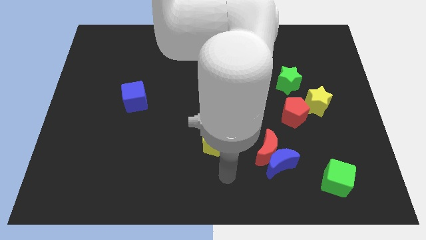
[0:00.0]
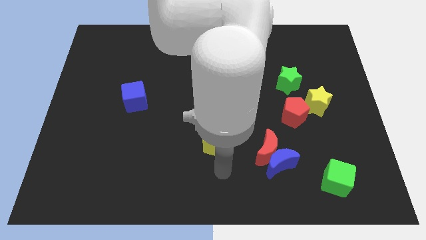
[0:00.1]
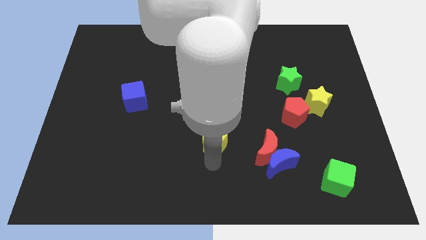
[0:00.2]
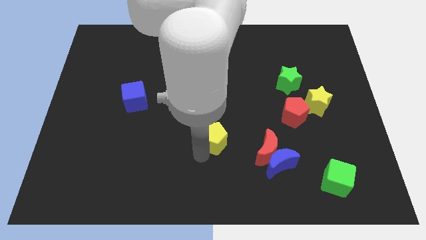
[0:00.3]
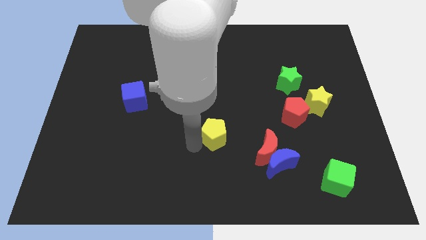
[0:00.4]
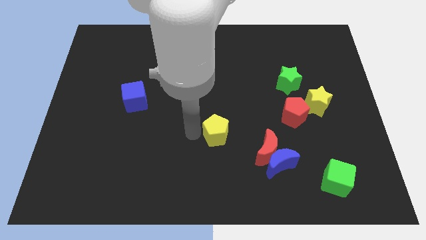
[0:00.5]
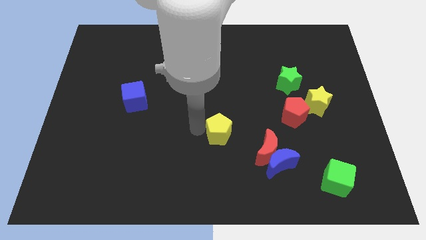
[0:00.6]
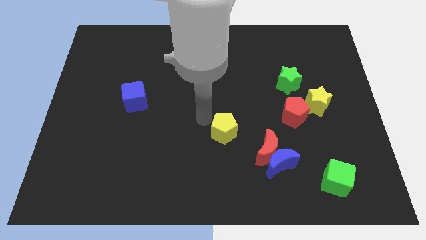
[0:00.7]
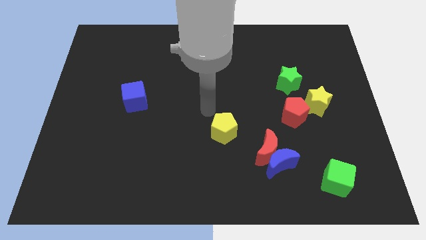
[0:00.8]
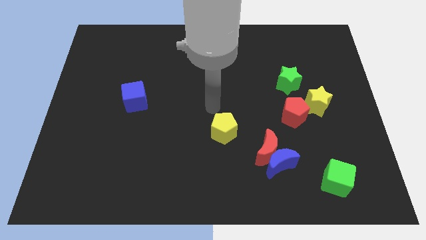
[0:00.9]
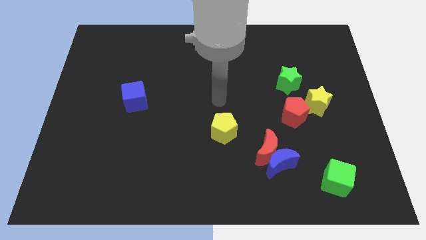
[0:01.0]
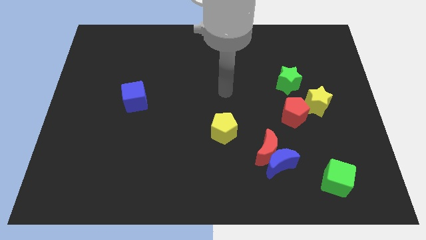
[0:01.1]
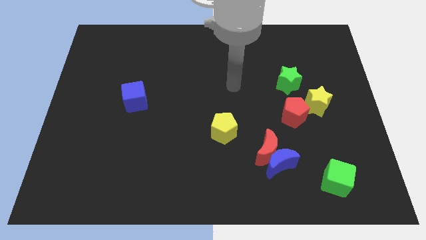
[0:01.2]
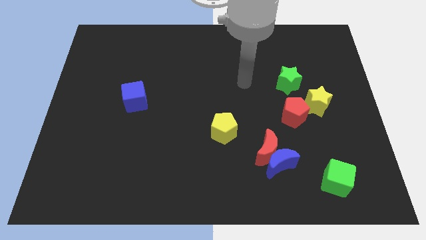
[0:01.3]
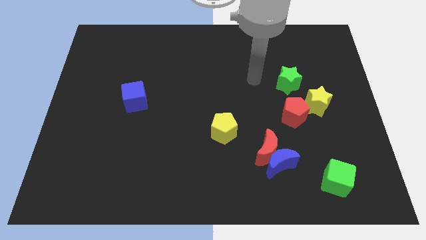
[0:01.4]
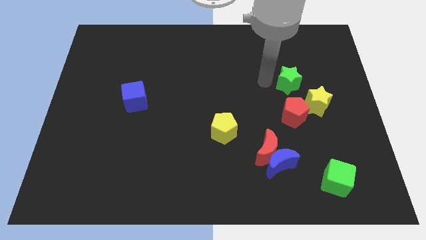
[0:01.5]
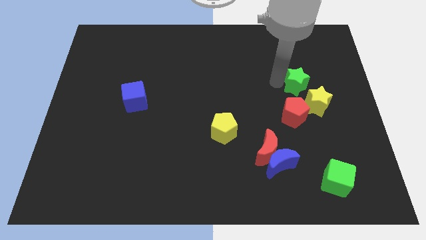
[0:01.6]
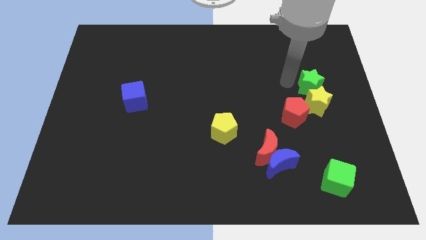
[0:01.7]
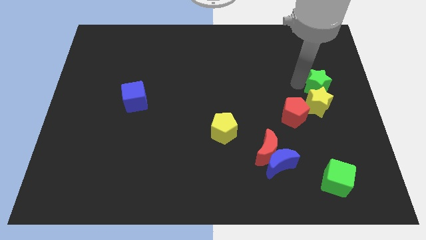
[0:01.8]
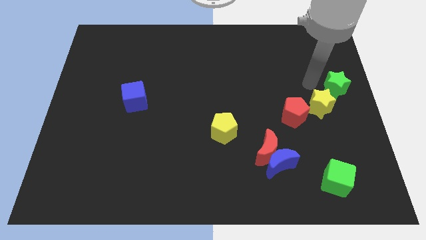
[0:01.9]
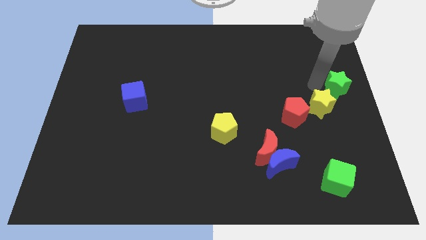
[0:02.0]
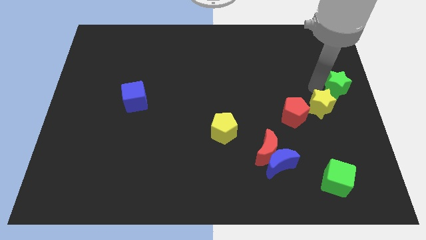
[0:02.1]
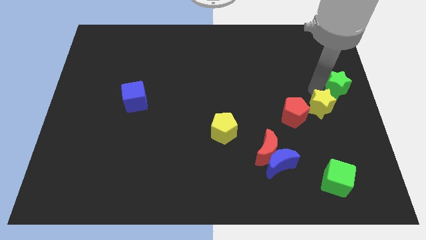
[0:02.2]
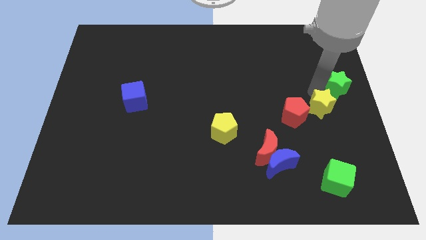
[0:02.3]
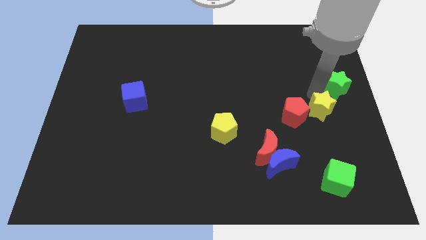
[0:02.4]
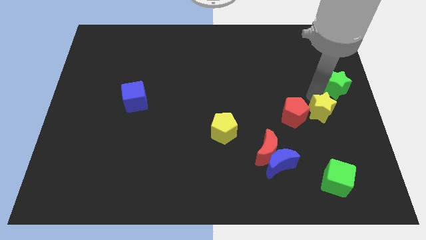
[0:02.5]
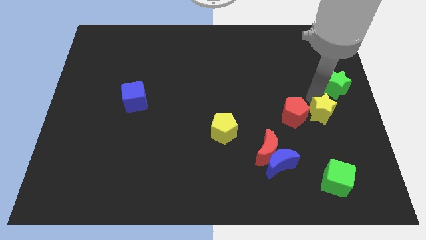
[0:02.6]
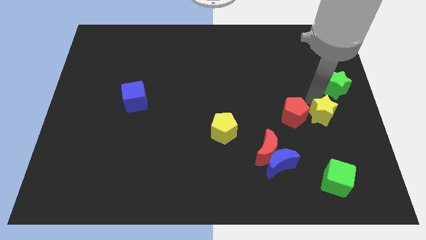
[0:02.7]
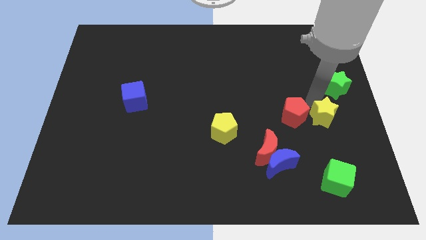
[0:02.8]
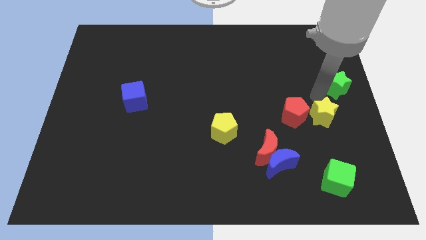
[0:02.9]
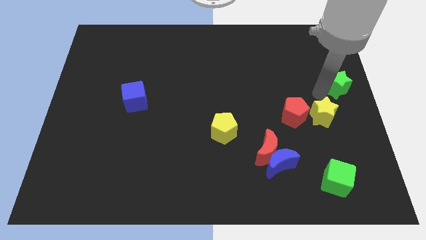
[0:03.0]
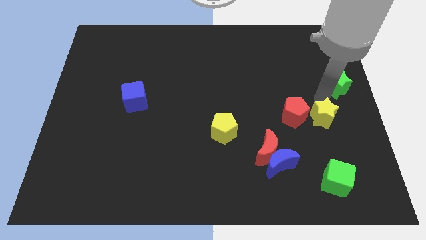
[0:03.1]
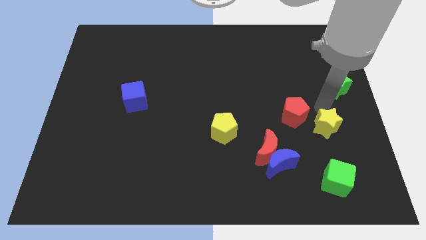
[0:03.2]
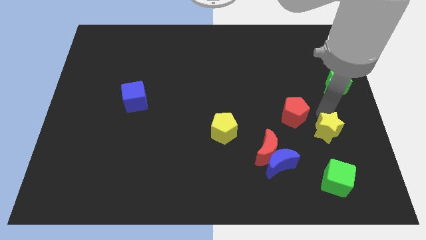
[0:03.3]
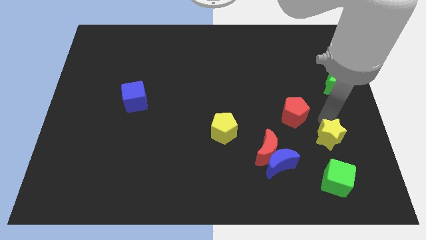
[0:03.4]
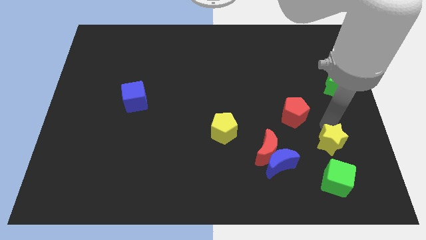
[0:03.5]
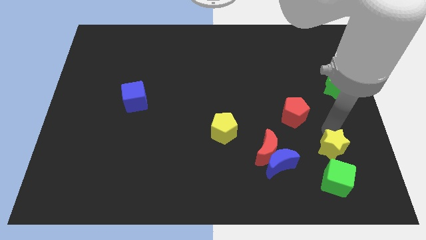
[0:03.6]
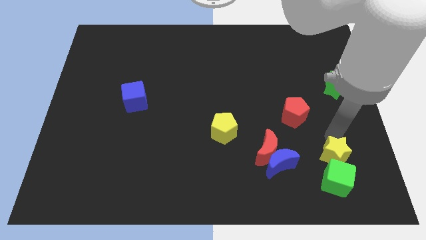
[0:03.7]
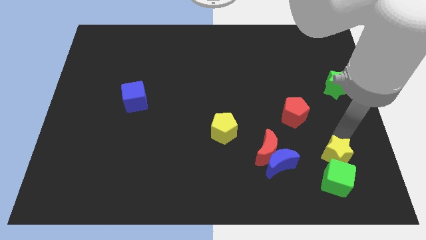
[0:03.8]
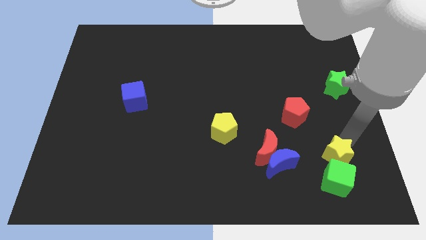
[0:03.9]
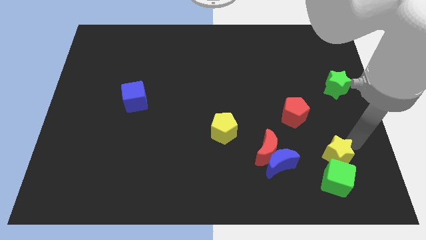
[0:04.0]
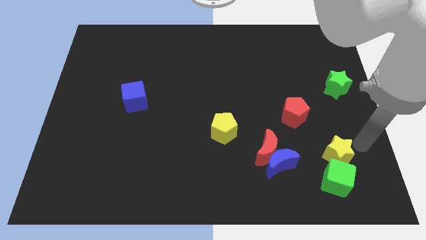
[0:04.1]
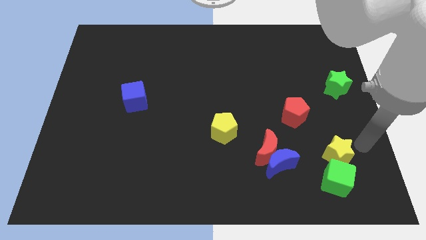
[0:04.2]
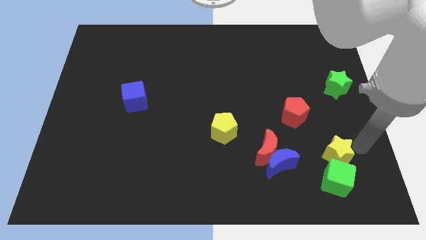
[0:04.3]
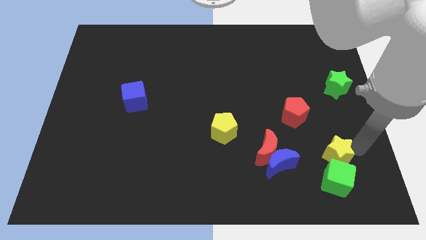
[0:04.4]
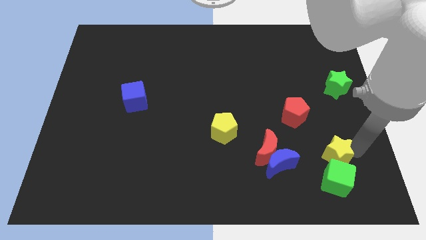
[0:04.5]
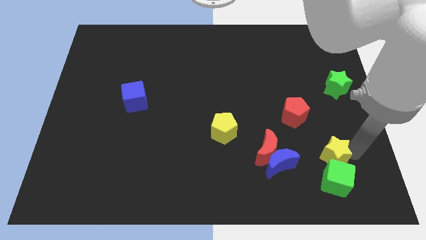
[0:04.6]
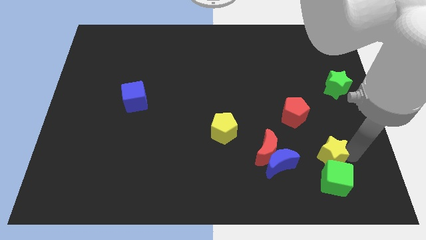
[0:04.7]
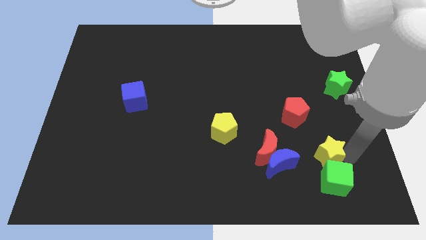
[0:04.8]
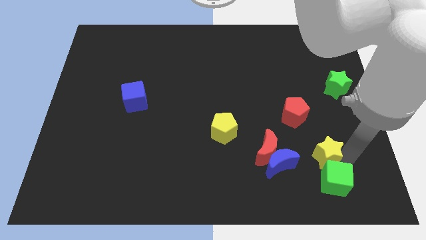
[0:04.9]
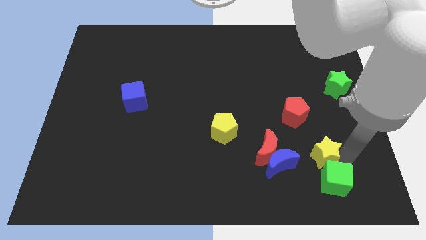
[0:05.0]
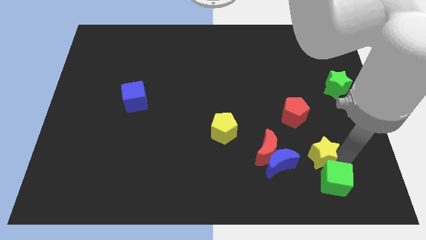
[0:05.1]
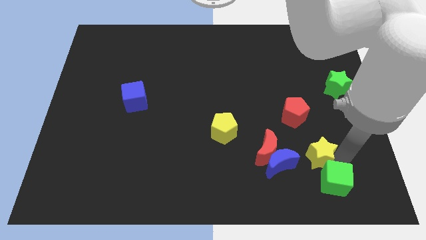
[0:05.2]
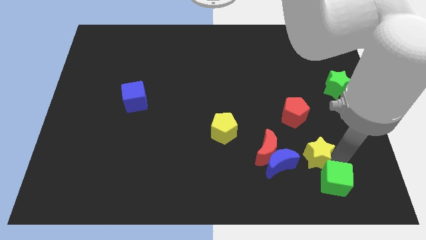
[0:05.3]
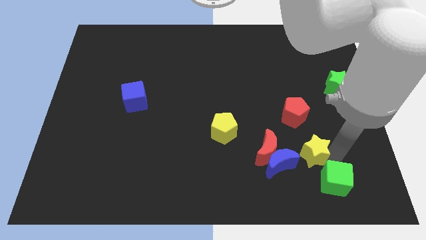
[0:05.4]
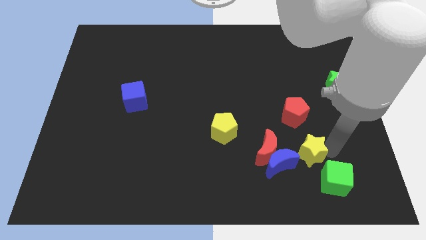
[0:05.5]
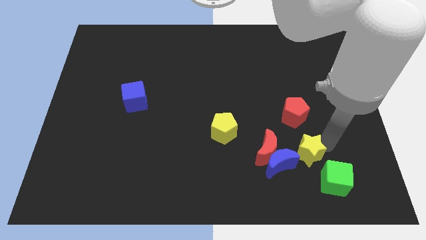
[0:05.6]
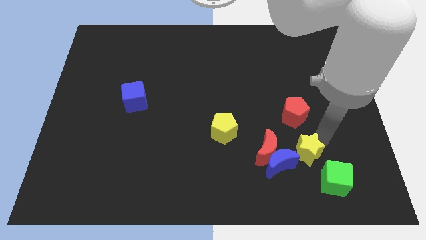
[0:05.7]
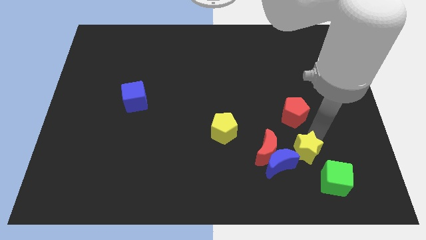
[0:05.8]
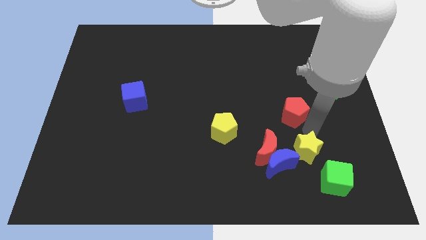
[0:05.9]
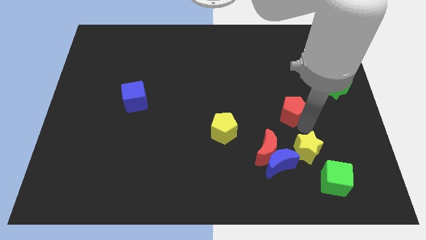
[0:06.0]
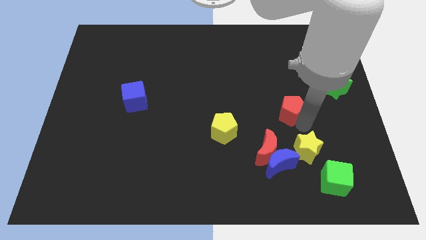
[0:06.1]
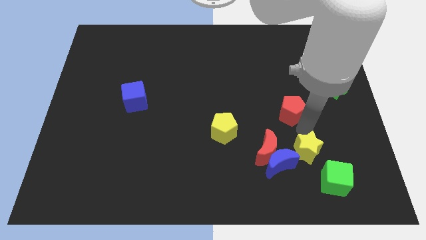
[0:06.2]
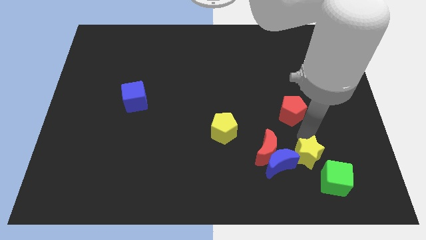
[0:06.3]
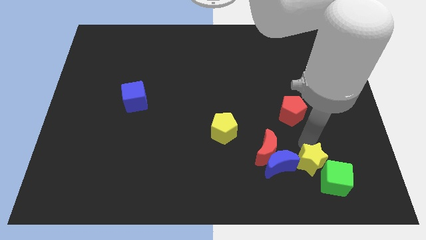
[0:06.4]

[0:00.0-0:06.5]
slide the yellow star to the left of the green cube
